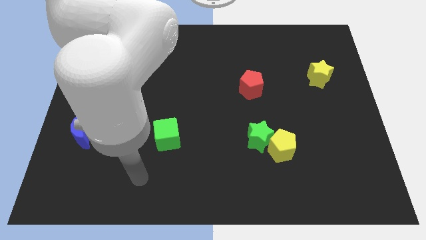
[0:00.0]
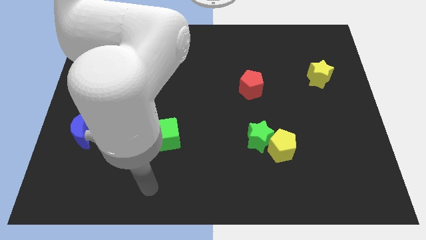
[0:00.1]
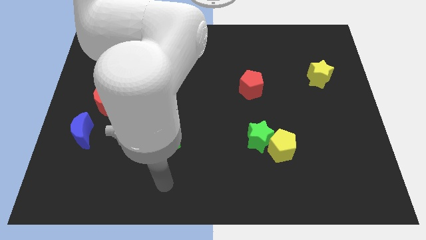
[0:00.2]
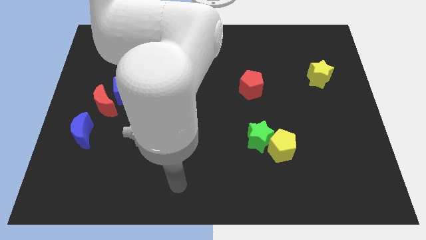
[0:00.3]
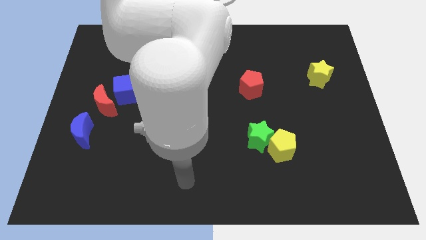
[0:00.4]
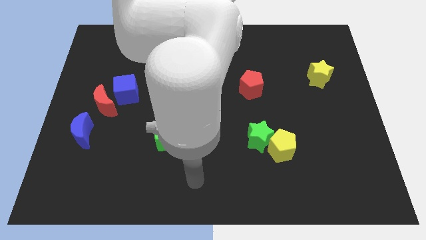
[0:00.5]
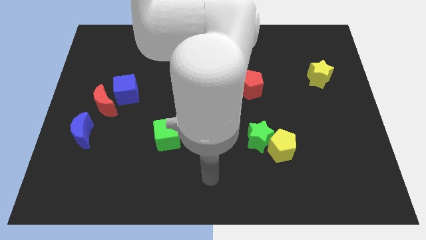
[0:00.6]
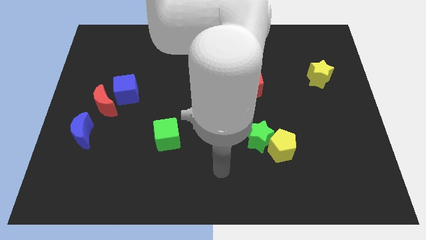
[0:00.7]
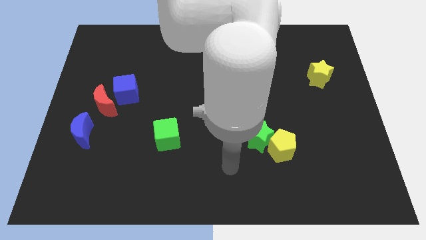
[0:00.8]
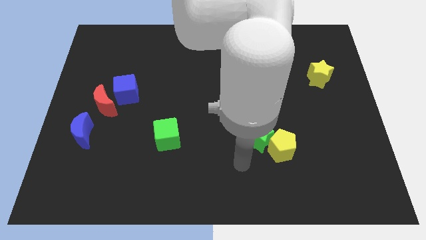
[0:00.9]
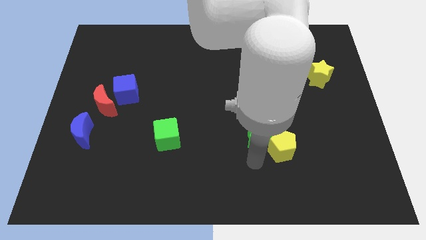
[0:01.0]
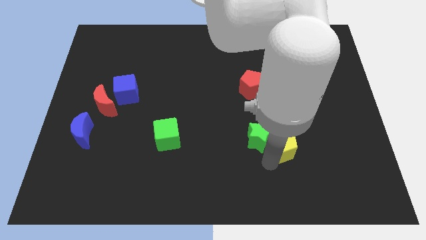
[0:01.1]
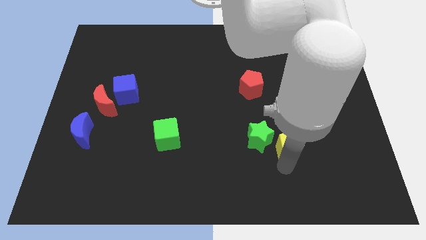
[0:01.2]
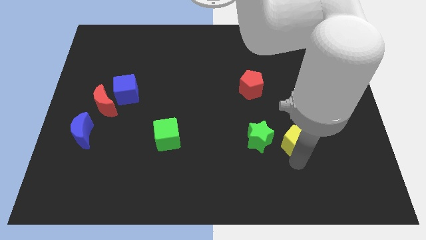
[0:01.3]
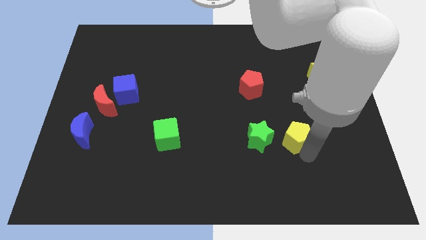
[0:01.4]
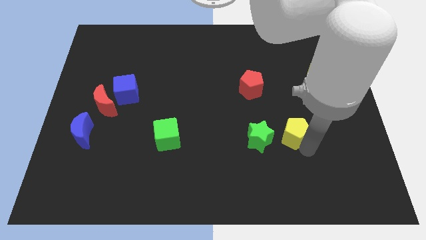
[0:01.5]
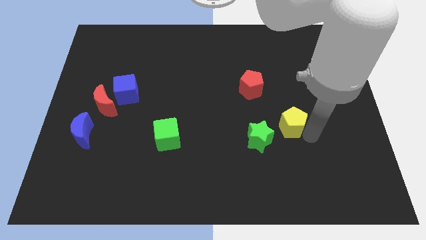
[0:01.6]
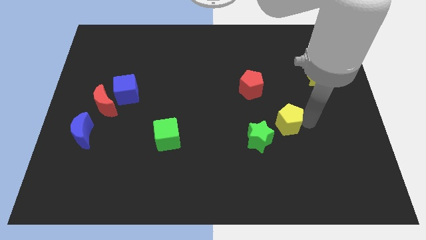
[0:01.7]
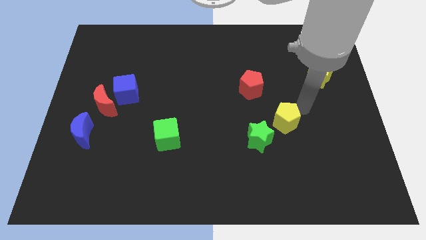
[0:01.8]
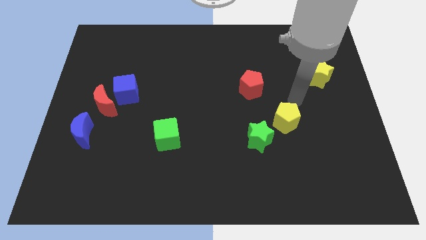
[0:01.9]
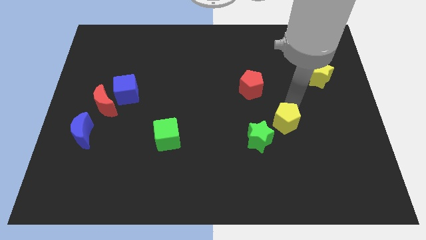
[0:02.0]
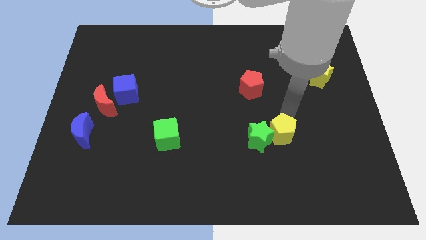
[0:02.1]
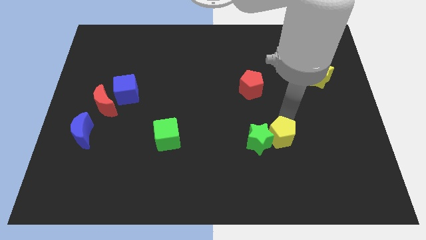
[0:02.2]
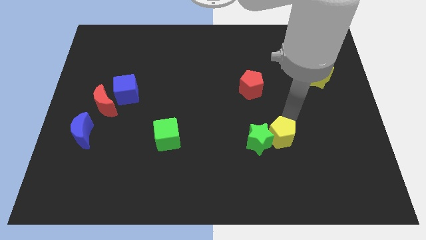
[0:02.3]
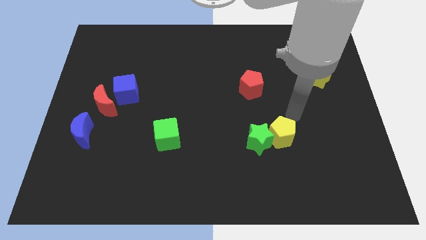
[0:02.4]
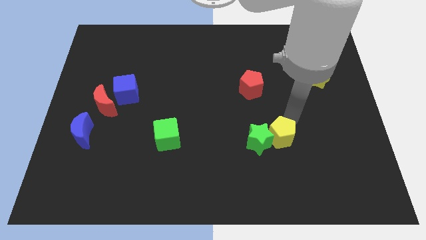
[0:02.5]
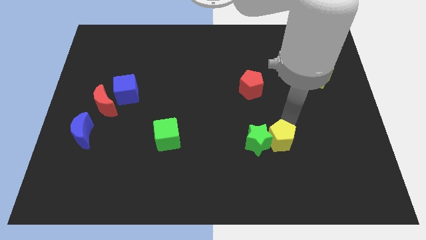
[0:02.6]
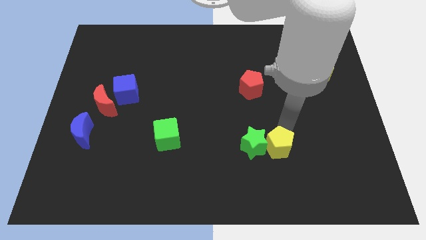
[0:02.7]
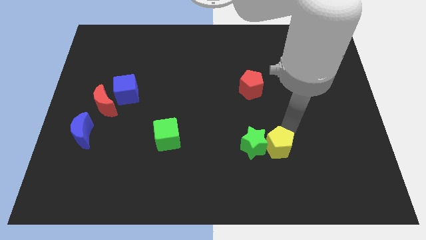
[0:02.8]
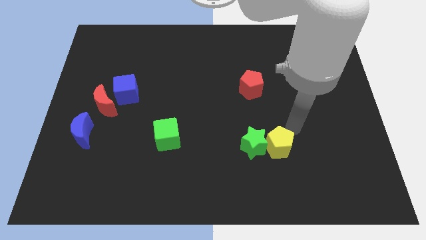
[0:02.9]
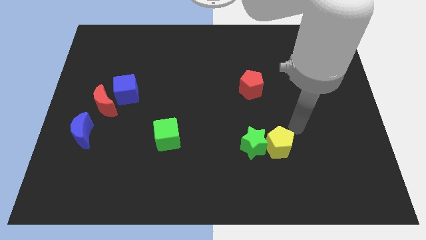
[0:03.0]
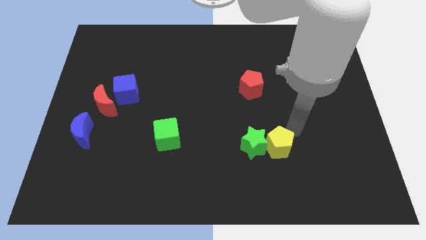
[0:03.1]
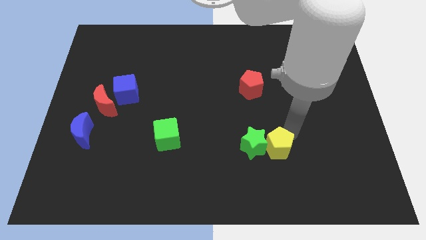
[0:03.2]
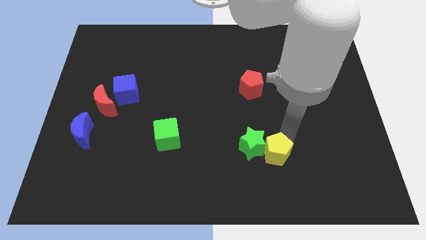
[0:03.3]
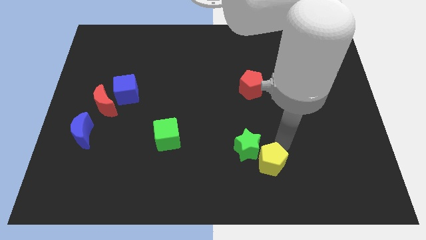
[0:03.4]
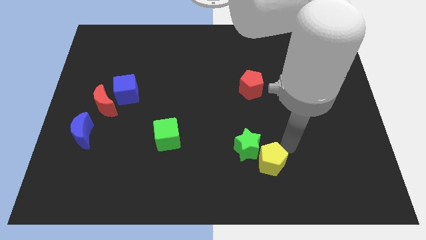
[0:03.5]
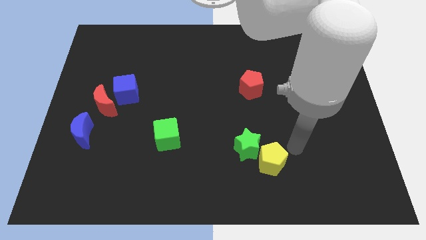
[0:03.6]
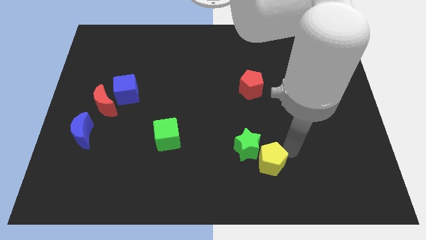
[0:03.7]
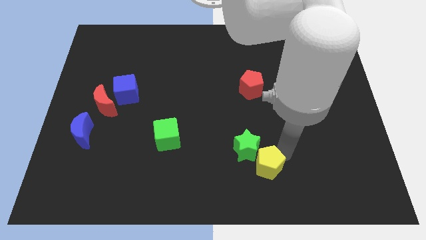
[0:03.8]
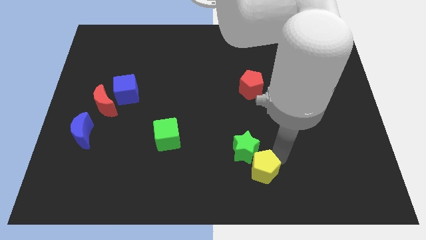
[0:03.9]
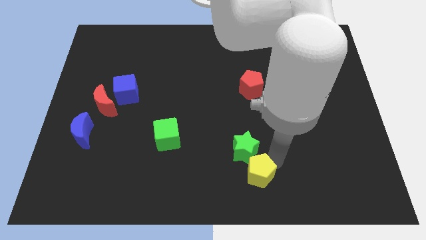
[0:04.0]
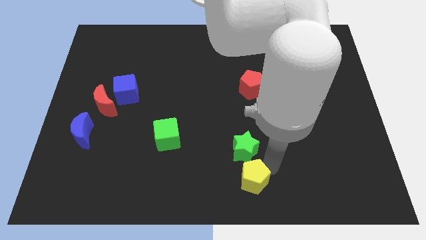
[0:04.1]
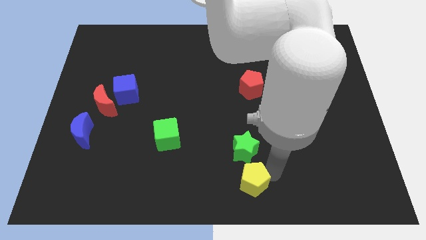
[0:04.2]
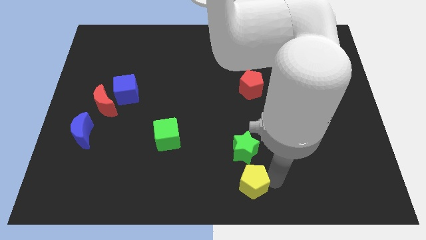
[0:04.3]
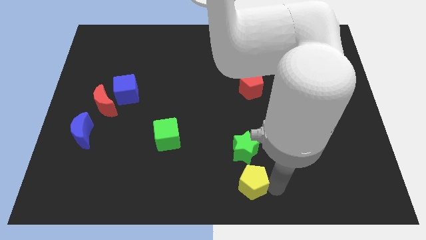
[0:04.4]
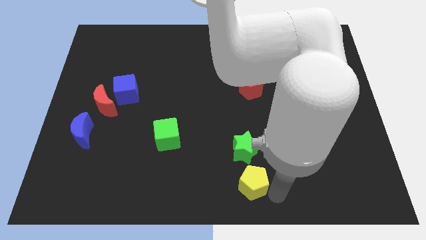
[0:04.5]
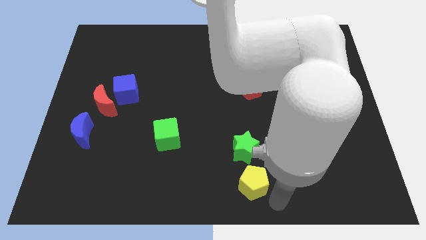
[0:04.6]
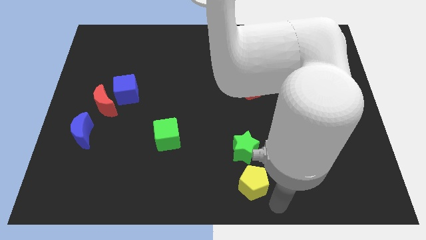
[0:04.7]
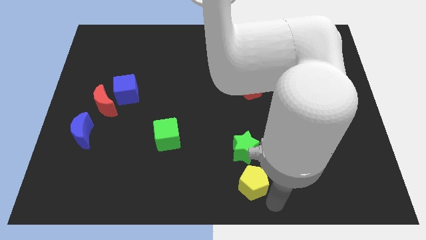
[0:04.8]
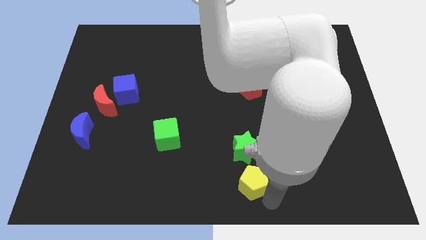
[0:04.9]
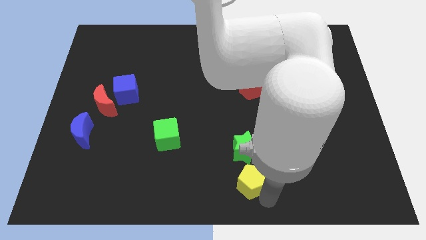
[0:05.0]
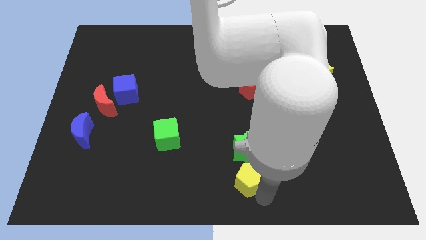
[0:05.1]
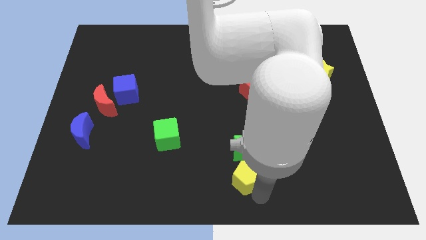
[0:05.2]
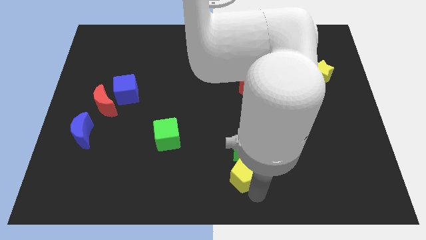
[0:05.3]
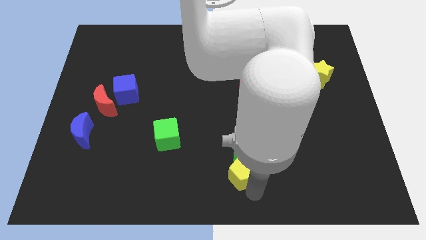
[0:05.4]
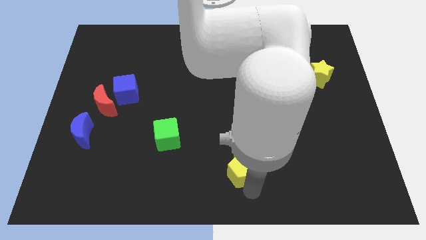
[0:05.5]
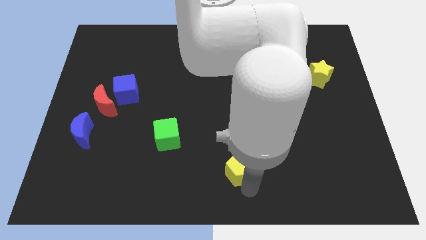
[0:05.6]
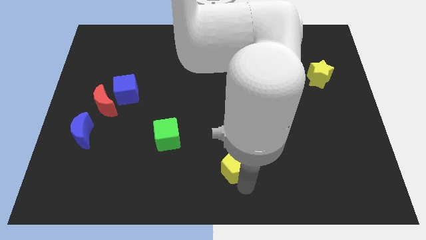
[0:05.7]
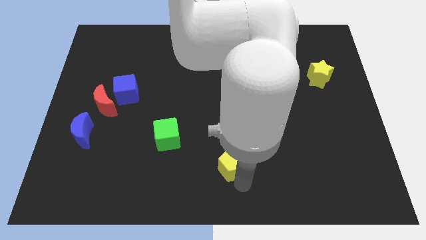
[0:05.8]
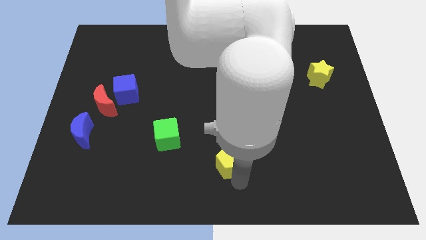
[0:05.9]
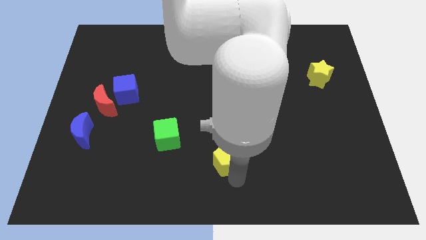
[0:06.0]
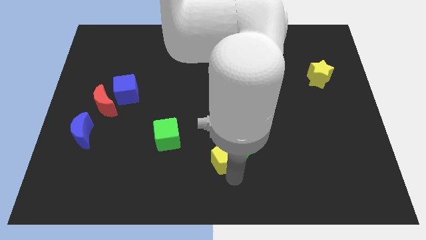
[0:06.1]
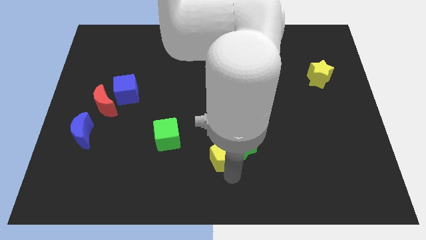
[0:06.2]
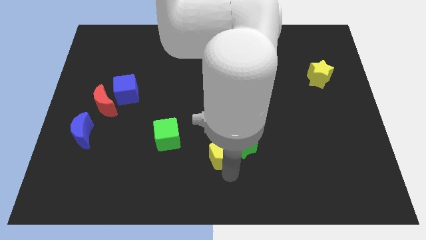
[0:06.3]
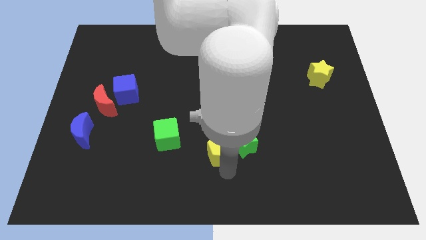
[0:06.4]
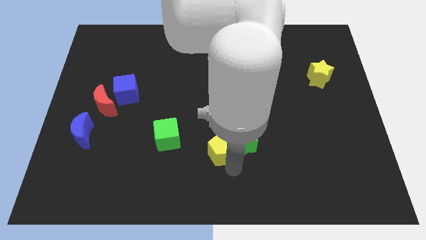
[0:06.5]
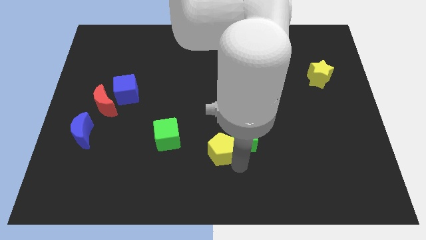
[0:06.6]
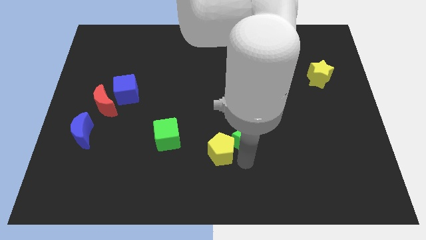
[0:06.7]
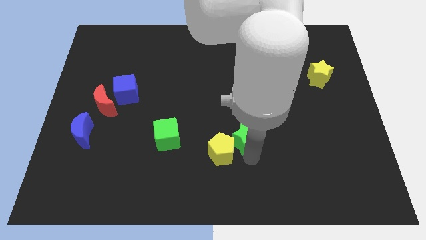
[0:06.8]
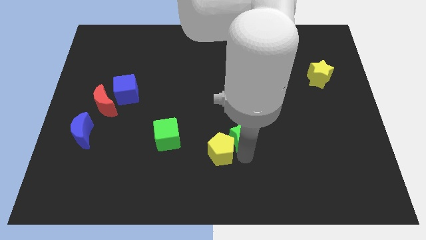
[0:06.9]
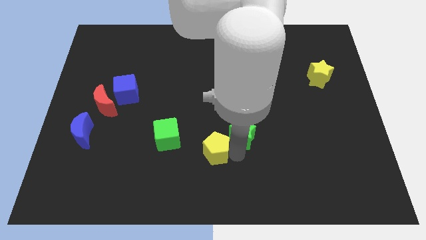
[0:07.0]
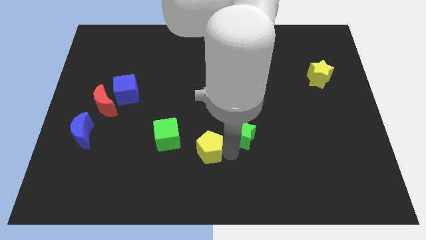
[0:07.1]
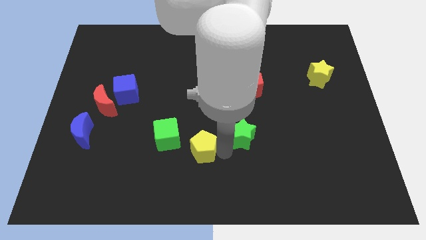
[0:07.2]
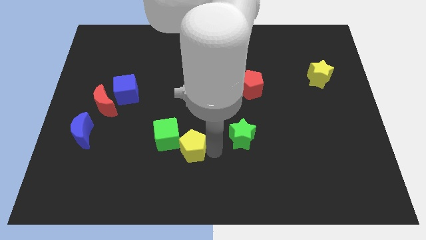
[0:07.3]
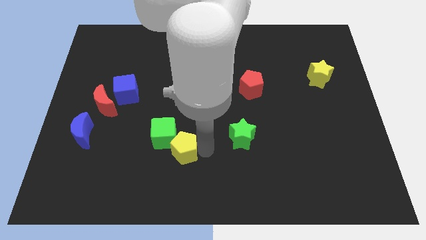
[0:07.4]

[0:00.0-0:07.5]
move the yellow pentagon to the green cube
